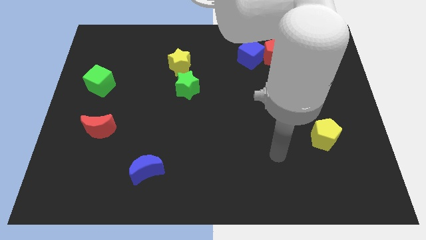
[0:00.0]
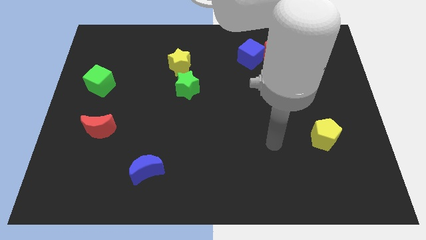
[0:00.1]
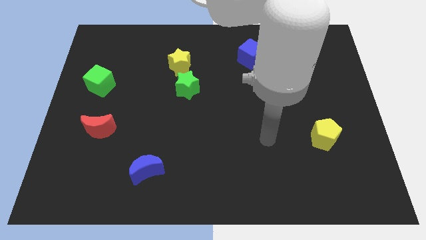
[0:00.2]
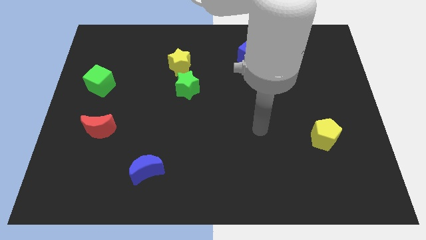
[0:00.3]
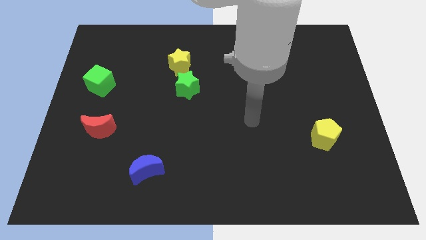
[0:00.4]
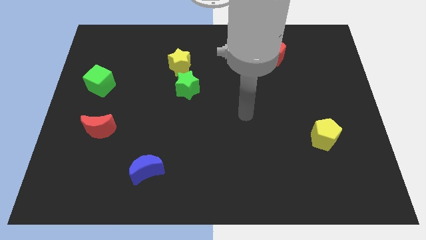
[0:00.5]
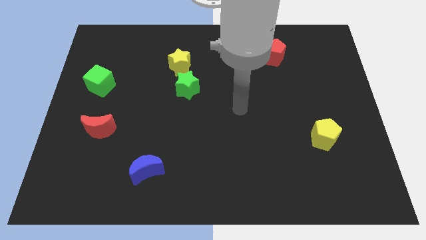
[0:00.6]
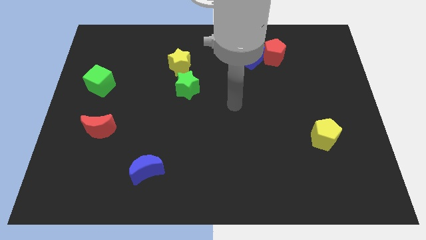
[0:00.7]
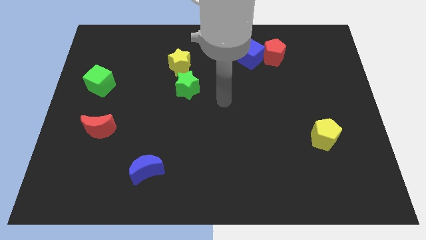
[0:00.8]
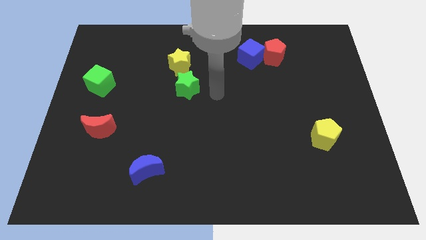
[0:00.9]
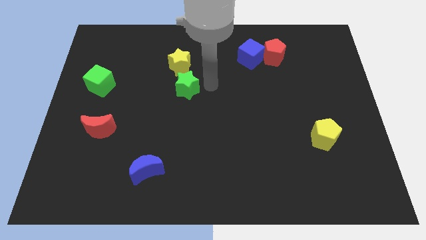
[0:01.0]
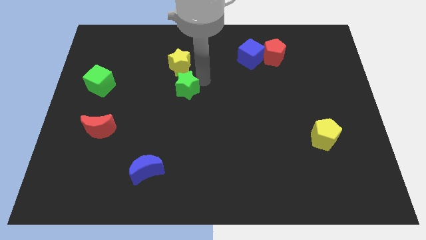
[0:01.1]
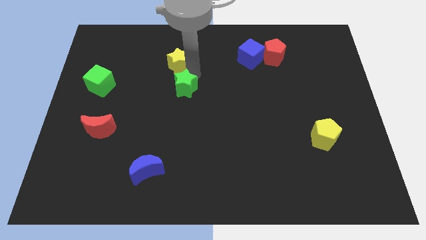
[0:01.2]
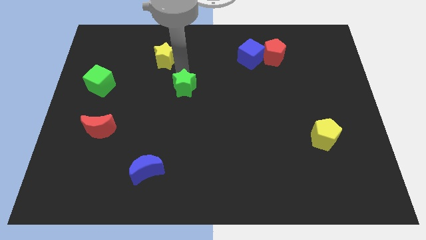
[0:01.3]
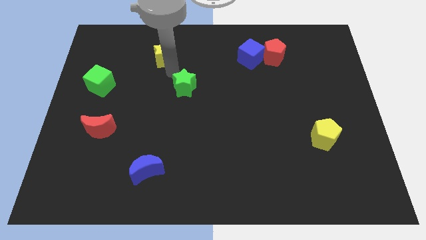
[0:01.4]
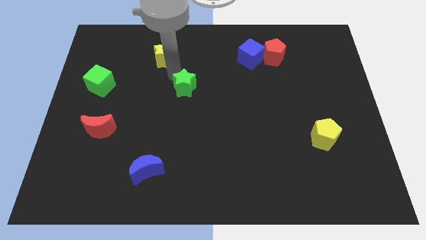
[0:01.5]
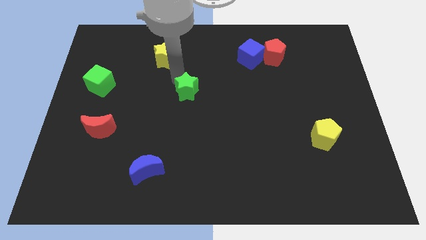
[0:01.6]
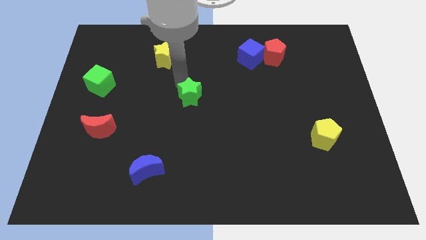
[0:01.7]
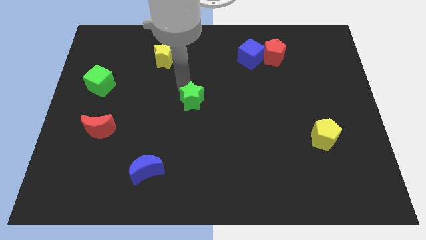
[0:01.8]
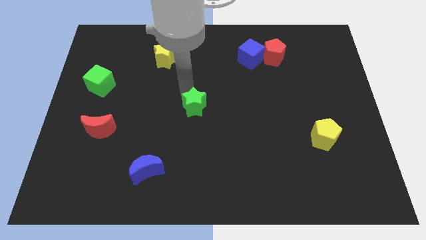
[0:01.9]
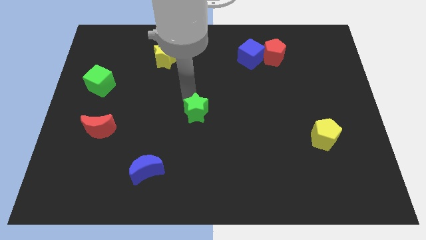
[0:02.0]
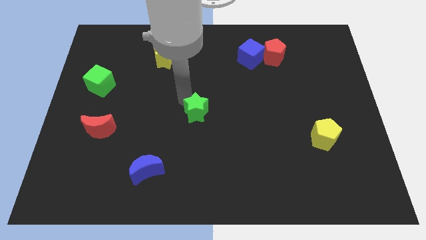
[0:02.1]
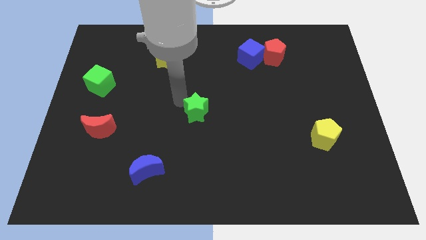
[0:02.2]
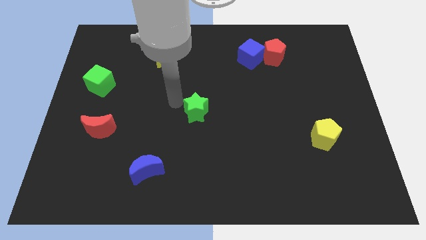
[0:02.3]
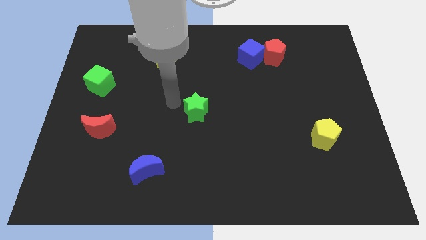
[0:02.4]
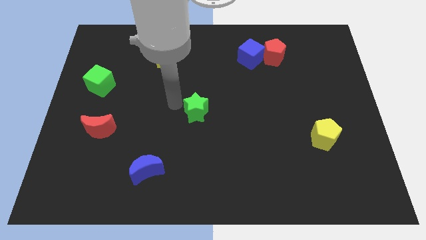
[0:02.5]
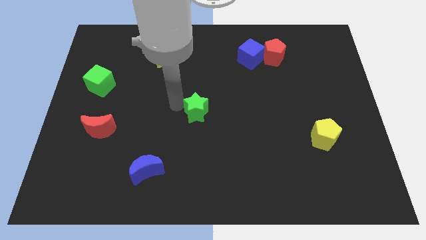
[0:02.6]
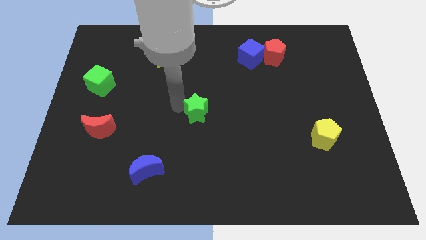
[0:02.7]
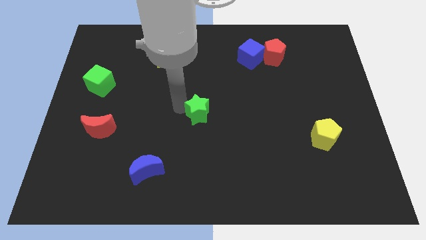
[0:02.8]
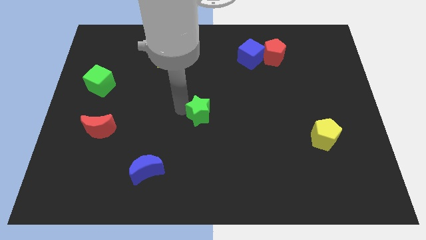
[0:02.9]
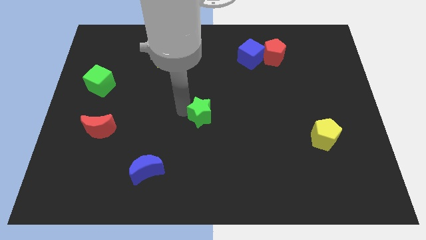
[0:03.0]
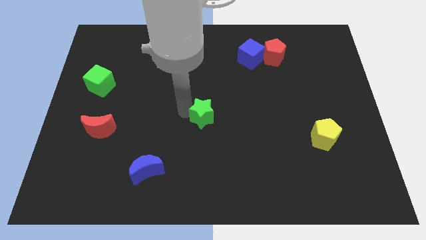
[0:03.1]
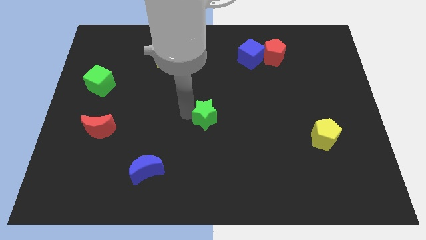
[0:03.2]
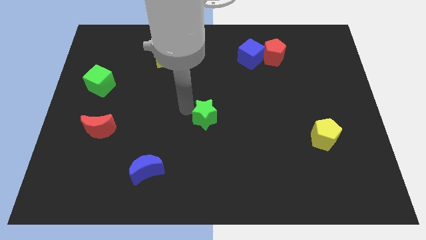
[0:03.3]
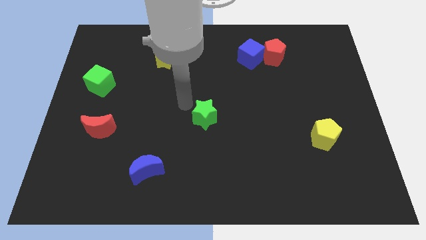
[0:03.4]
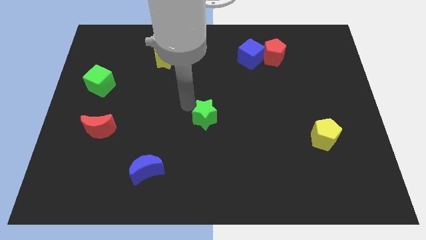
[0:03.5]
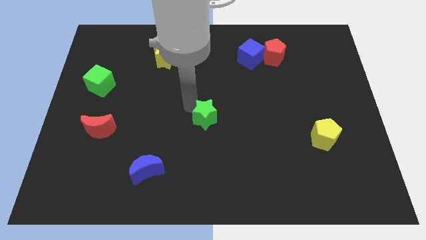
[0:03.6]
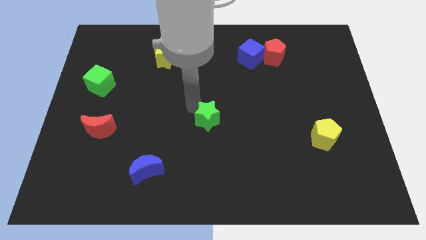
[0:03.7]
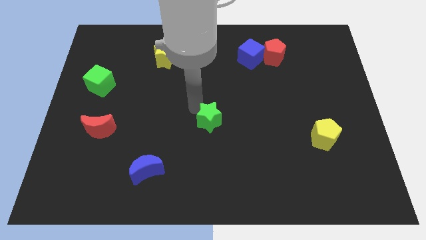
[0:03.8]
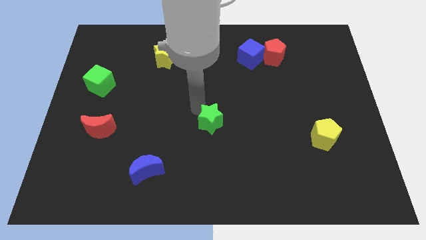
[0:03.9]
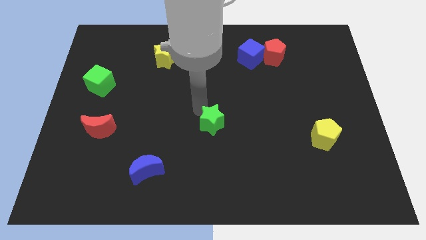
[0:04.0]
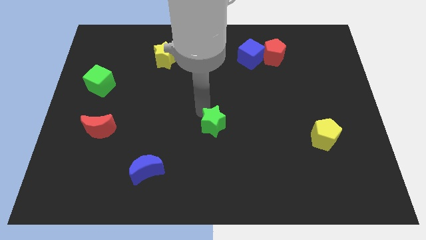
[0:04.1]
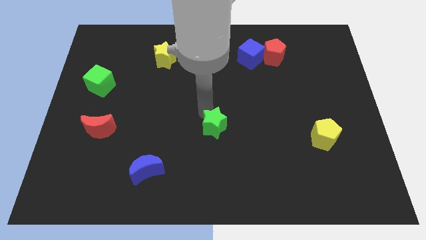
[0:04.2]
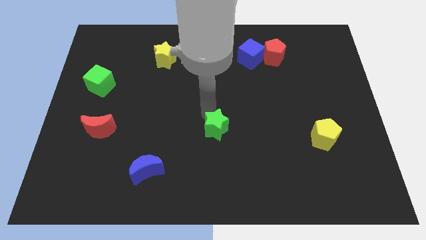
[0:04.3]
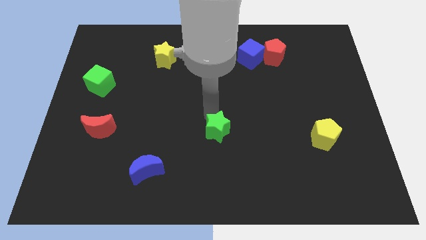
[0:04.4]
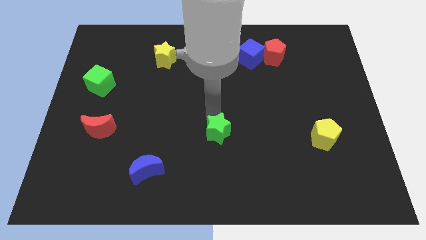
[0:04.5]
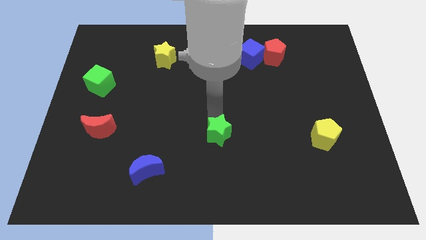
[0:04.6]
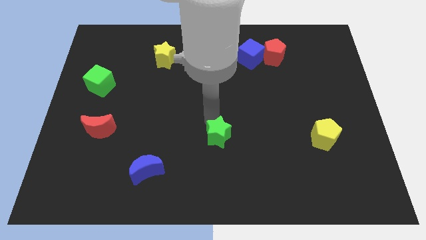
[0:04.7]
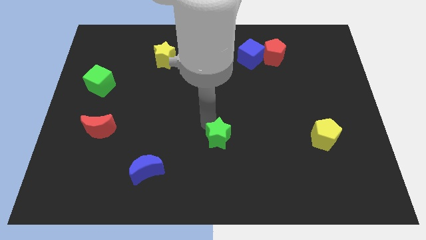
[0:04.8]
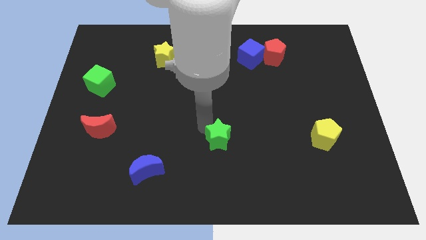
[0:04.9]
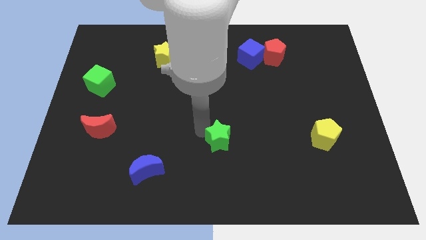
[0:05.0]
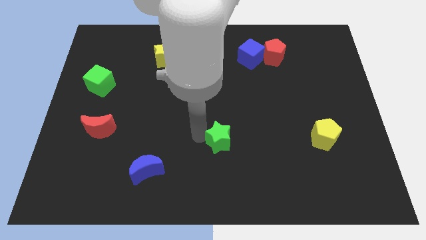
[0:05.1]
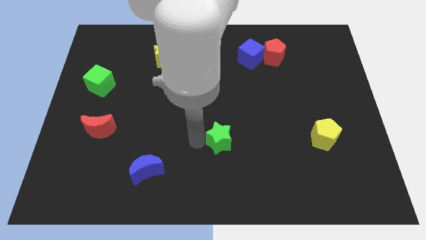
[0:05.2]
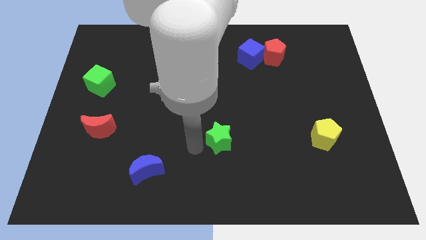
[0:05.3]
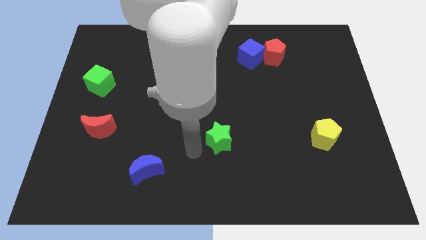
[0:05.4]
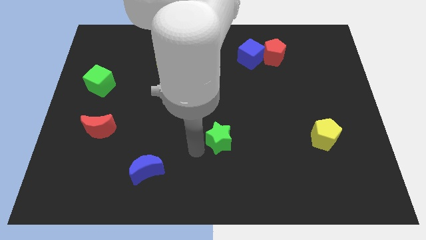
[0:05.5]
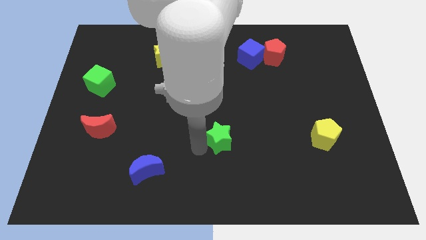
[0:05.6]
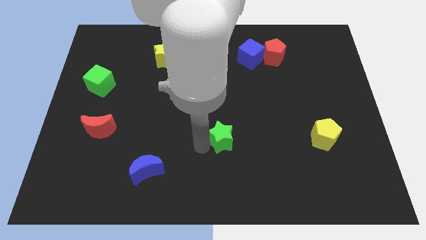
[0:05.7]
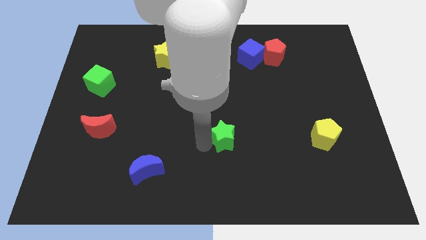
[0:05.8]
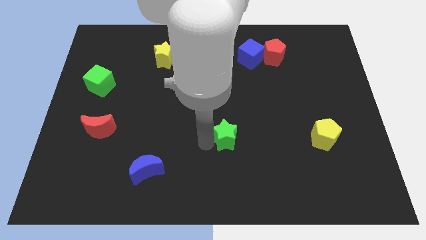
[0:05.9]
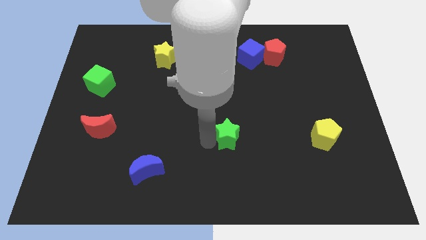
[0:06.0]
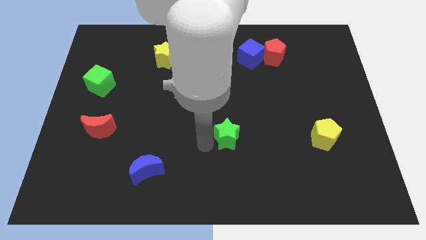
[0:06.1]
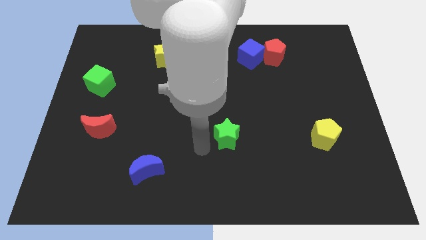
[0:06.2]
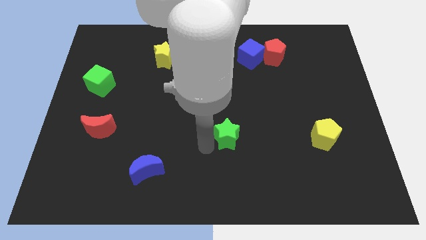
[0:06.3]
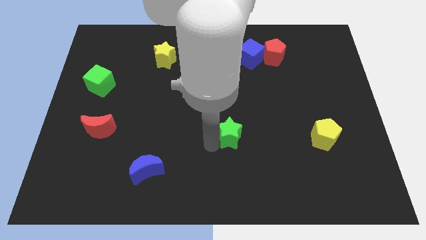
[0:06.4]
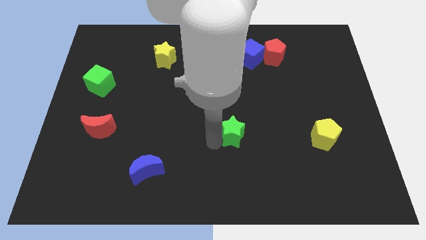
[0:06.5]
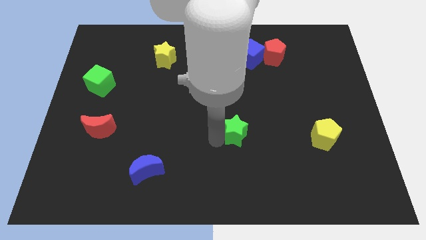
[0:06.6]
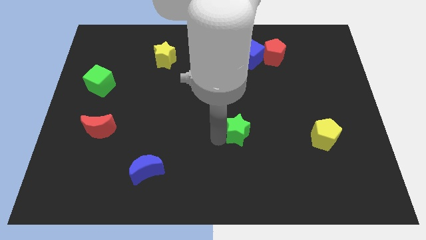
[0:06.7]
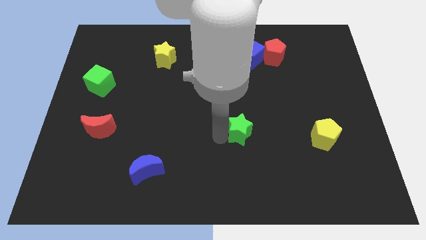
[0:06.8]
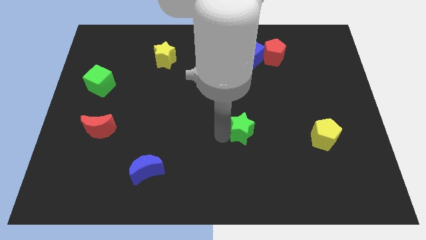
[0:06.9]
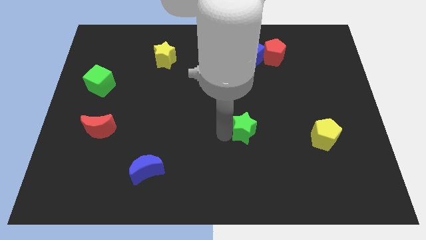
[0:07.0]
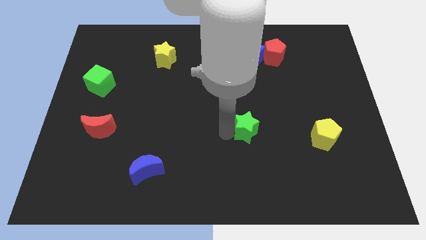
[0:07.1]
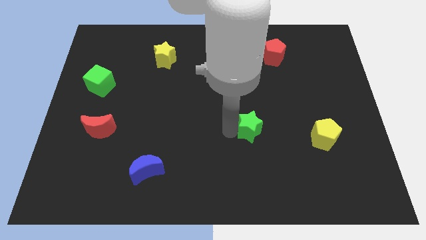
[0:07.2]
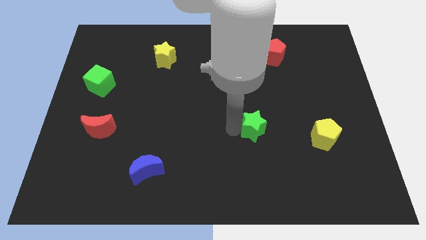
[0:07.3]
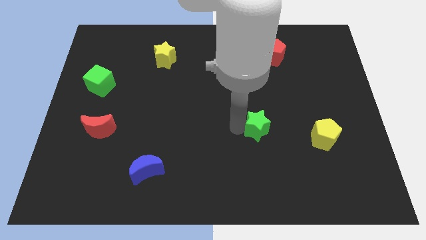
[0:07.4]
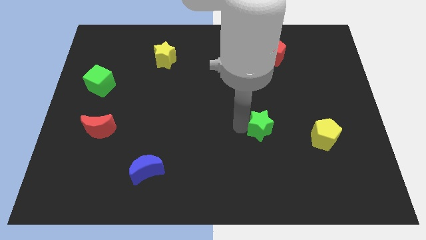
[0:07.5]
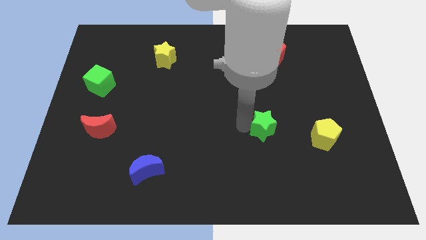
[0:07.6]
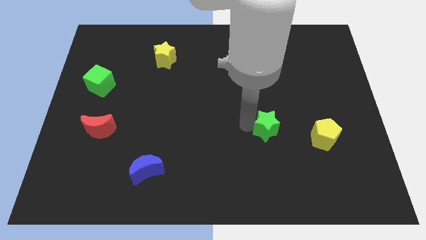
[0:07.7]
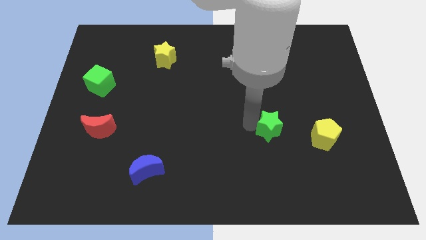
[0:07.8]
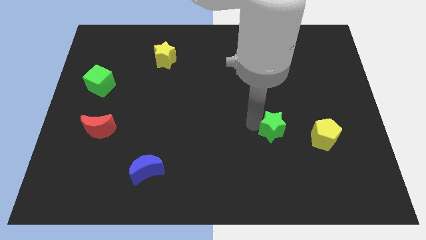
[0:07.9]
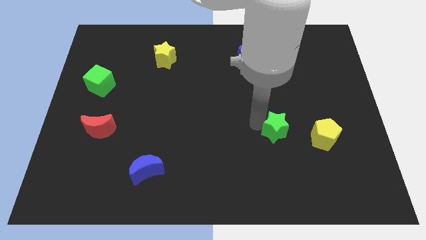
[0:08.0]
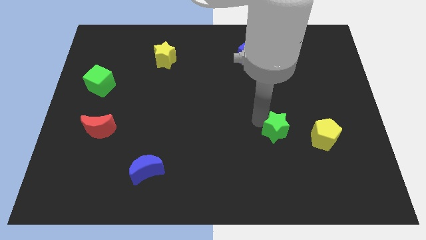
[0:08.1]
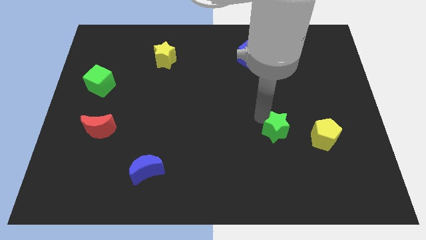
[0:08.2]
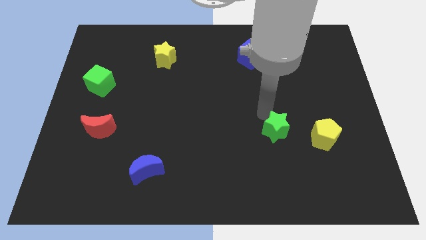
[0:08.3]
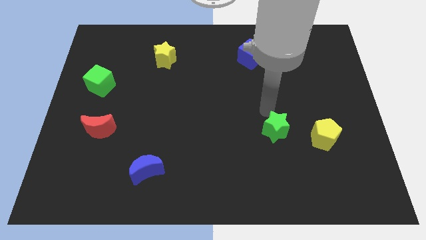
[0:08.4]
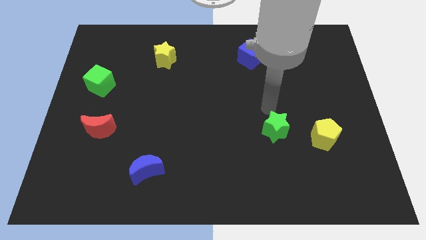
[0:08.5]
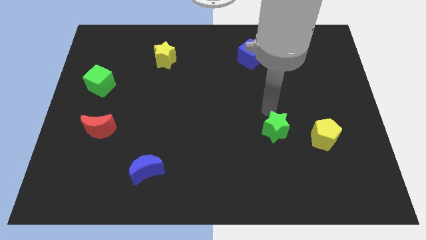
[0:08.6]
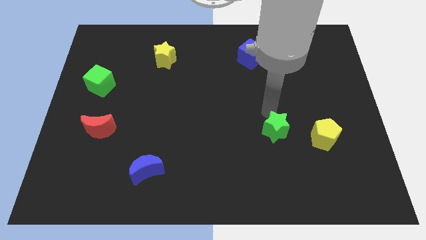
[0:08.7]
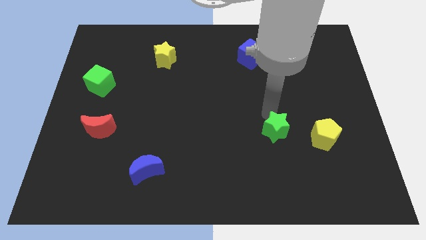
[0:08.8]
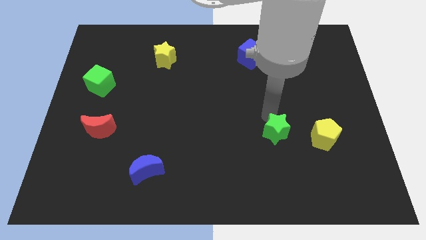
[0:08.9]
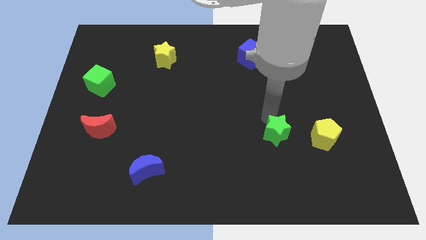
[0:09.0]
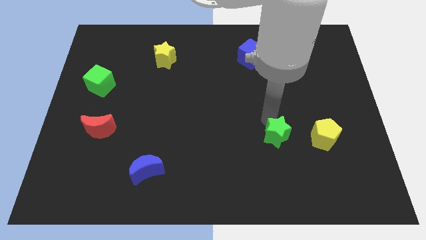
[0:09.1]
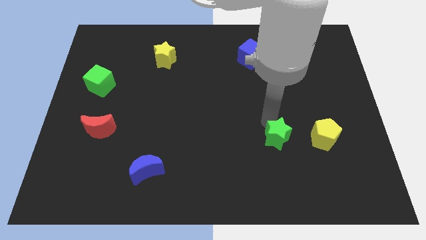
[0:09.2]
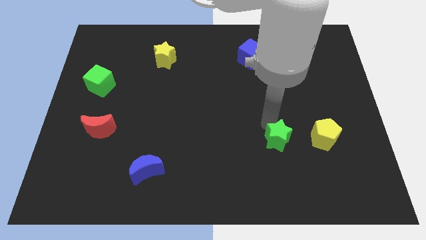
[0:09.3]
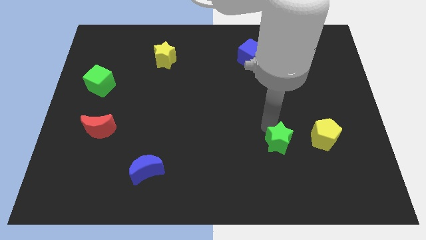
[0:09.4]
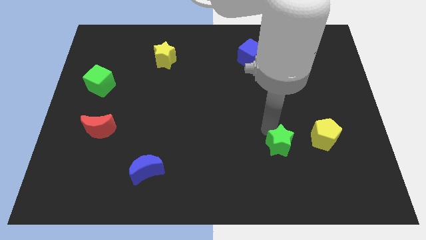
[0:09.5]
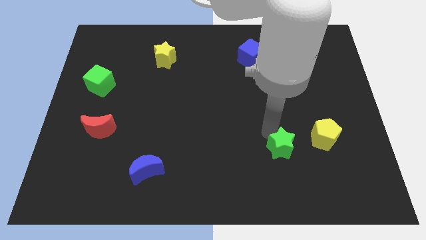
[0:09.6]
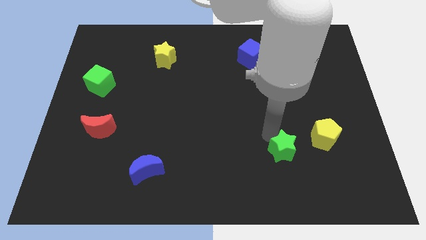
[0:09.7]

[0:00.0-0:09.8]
put the green star diagonally down and to the left of the yellow pentagon
